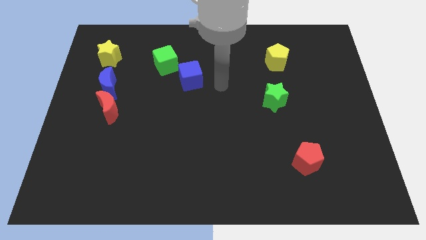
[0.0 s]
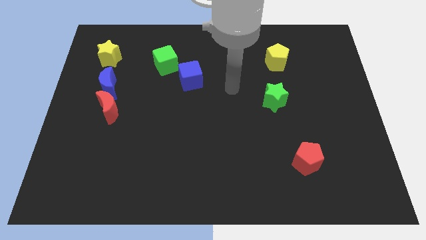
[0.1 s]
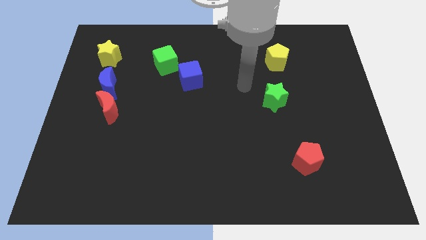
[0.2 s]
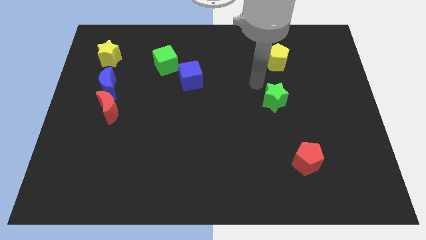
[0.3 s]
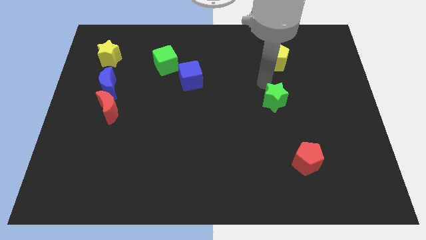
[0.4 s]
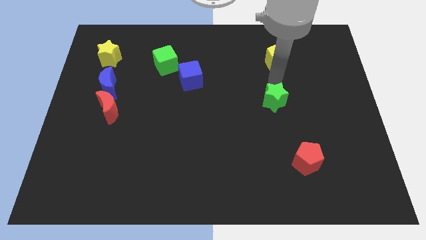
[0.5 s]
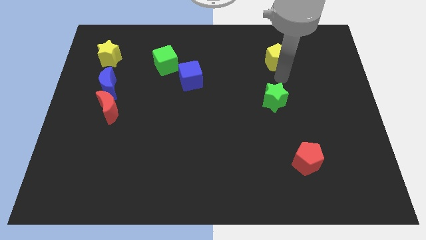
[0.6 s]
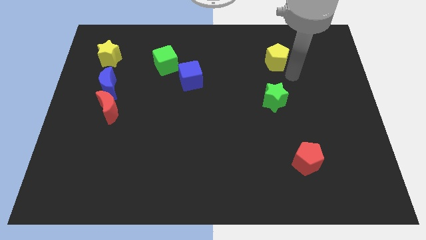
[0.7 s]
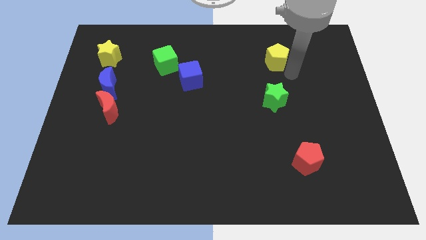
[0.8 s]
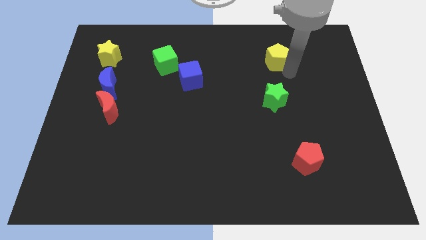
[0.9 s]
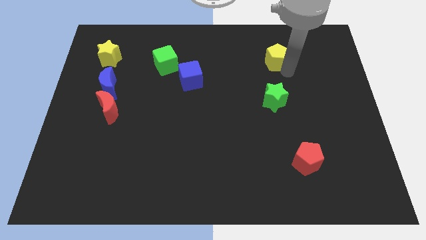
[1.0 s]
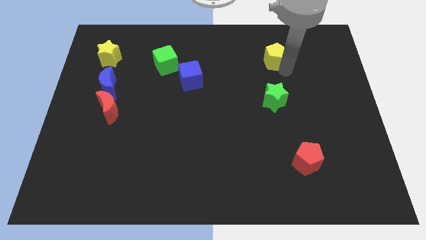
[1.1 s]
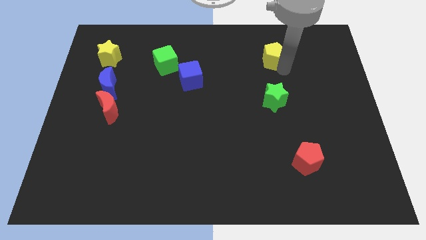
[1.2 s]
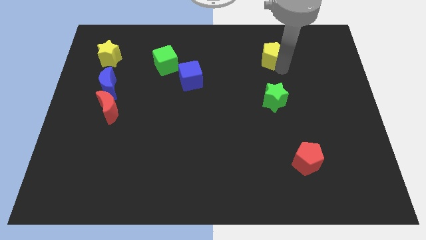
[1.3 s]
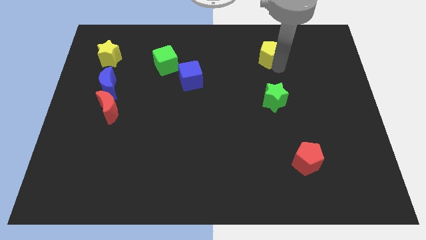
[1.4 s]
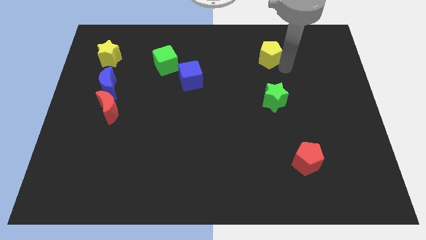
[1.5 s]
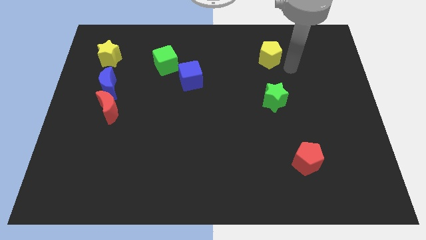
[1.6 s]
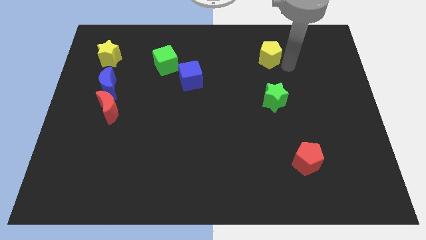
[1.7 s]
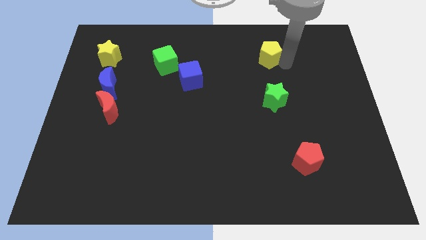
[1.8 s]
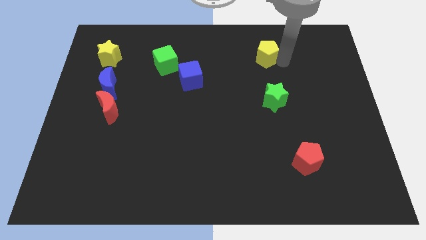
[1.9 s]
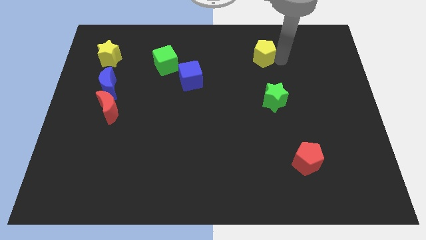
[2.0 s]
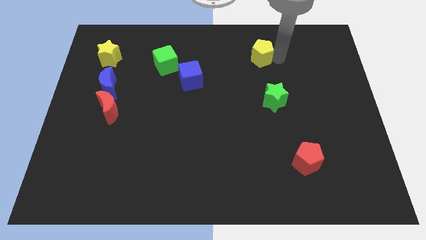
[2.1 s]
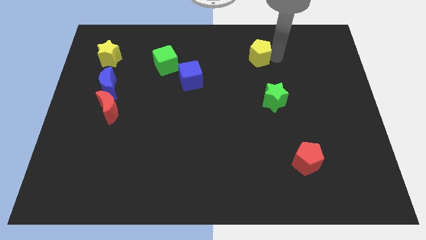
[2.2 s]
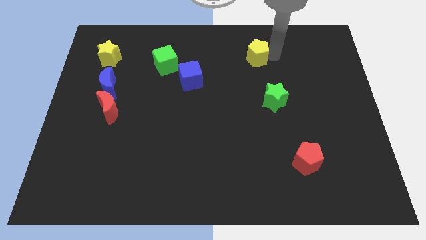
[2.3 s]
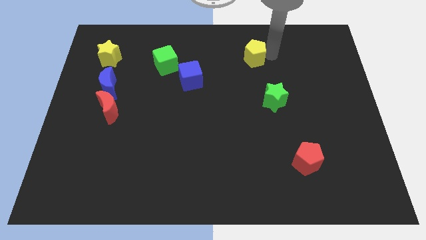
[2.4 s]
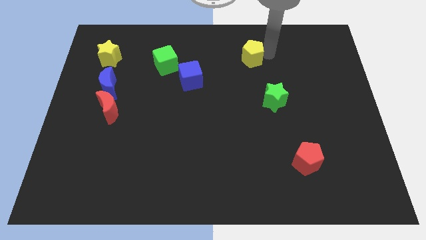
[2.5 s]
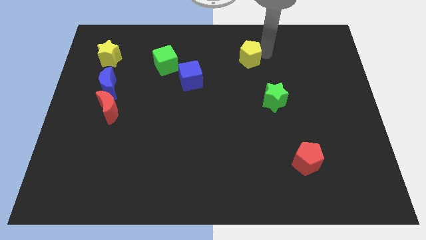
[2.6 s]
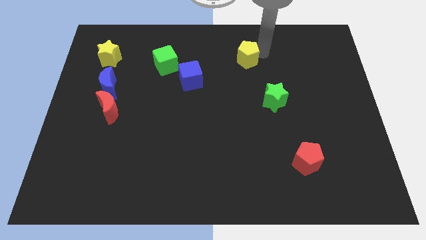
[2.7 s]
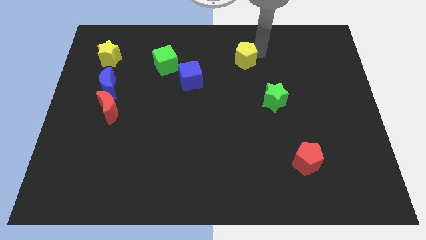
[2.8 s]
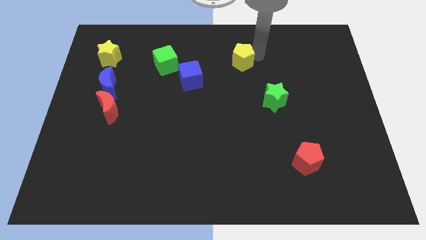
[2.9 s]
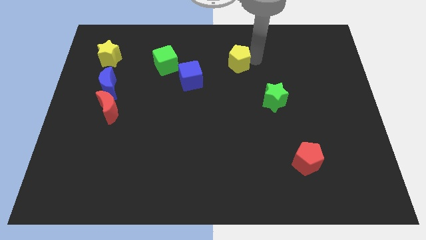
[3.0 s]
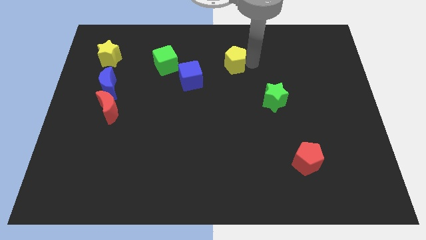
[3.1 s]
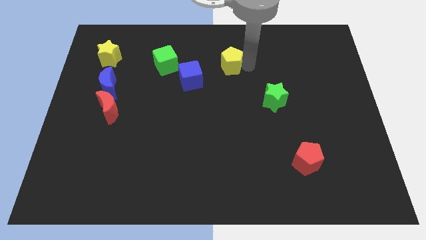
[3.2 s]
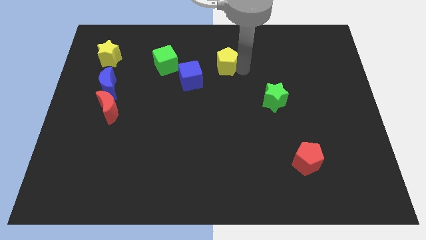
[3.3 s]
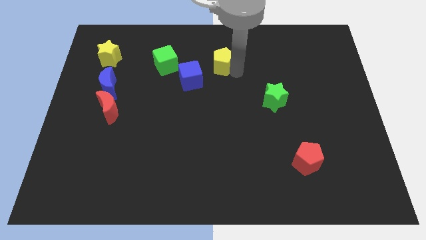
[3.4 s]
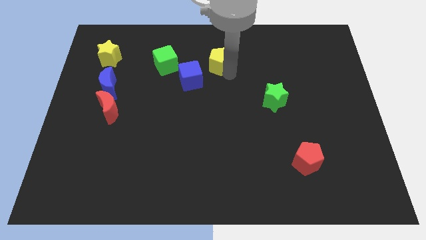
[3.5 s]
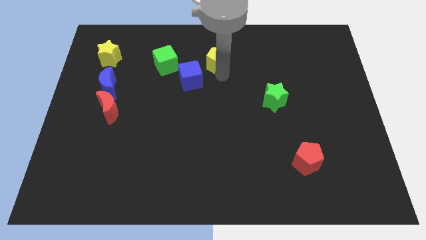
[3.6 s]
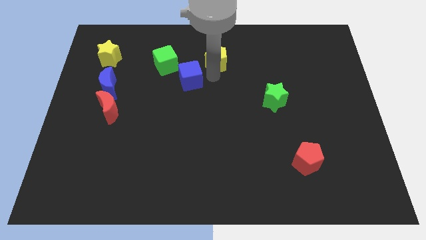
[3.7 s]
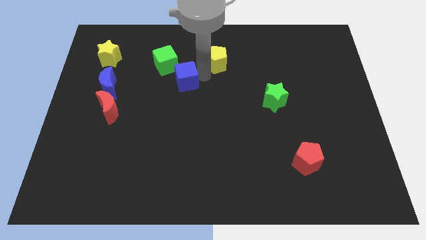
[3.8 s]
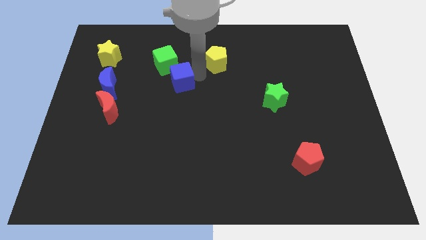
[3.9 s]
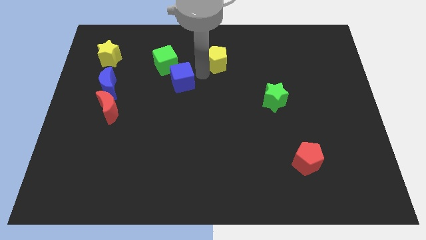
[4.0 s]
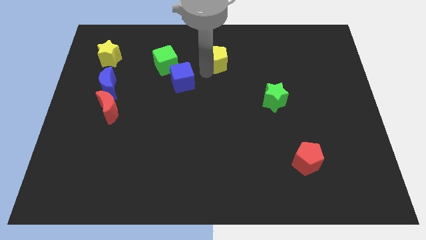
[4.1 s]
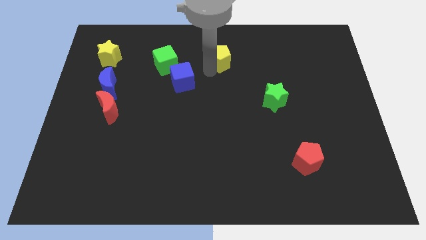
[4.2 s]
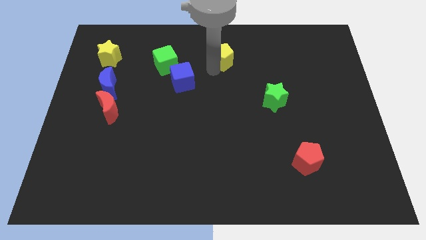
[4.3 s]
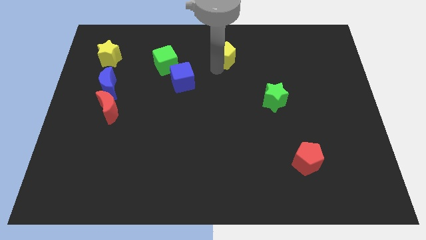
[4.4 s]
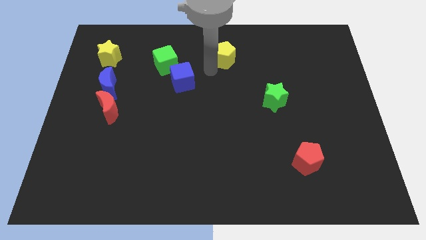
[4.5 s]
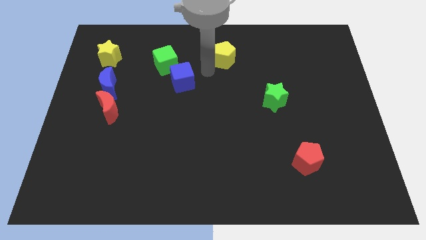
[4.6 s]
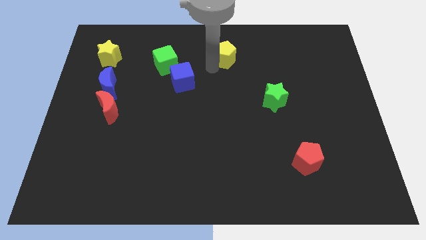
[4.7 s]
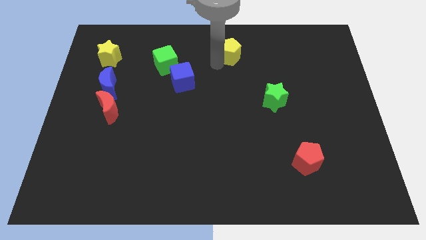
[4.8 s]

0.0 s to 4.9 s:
put the yellow pentagon to the towards your base

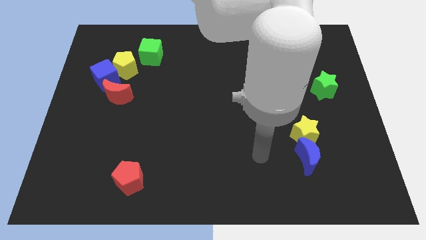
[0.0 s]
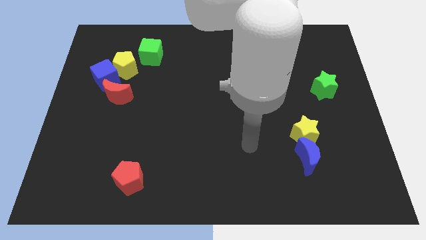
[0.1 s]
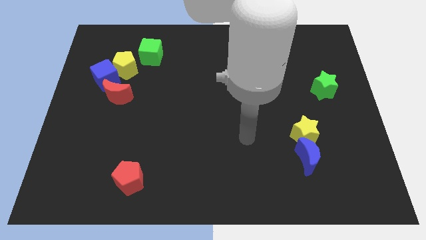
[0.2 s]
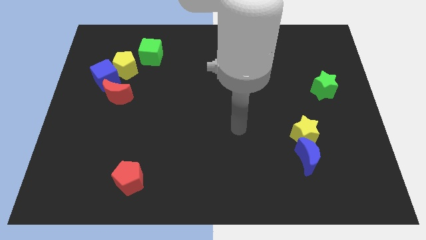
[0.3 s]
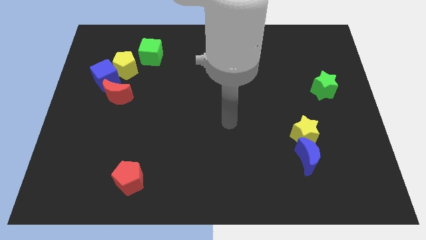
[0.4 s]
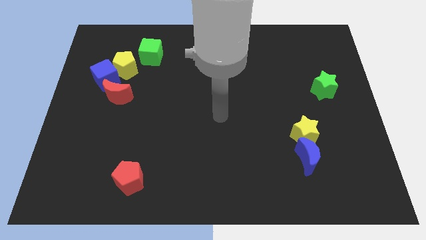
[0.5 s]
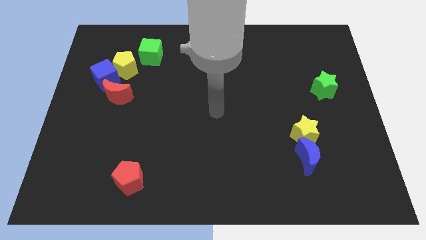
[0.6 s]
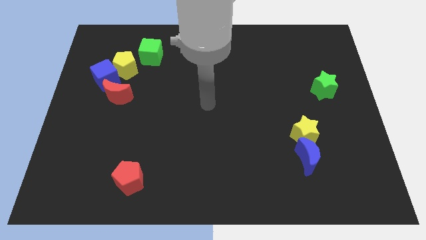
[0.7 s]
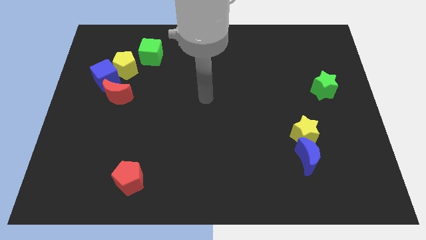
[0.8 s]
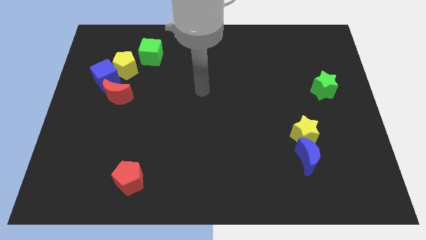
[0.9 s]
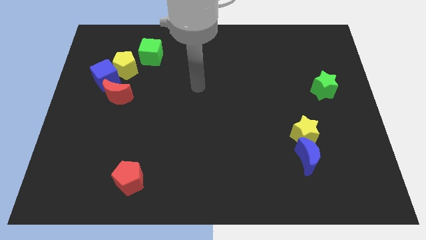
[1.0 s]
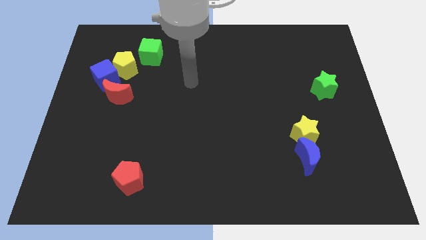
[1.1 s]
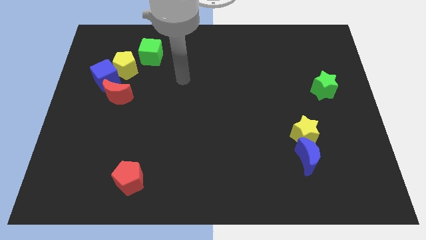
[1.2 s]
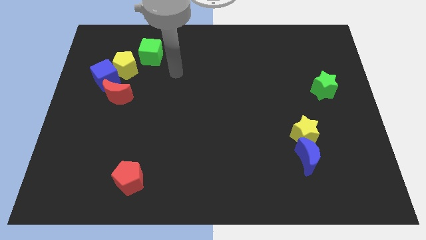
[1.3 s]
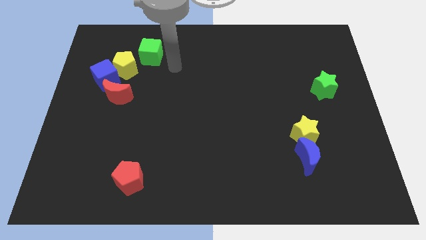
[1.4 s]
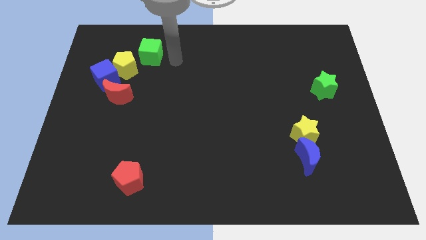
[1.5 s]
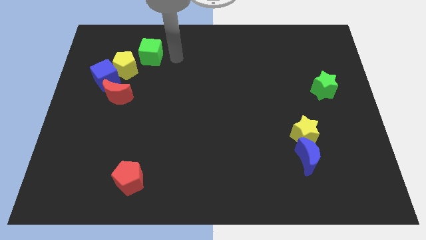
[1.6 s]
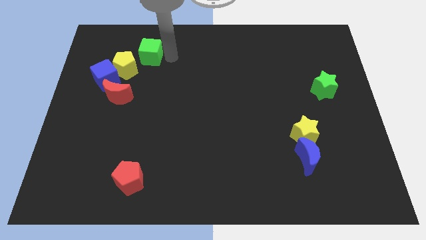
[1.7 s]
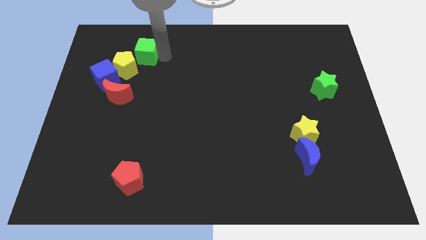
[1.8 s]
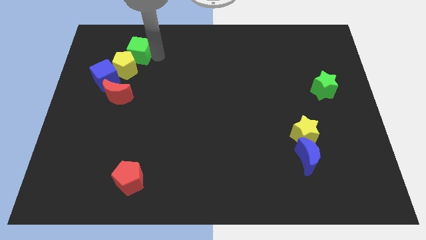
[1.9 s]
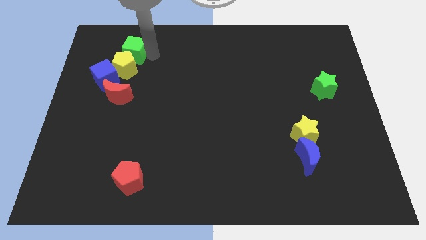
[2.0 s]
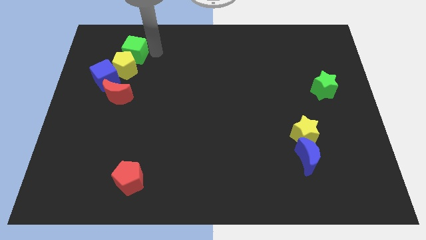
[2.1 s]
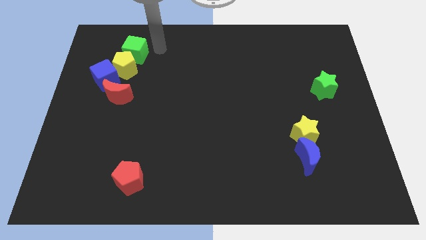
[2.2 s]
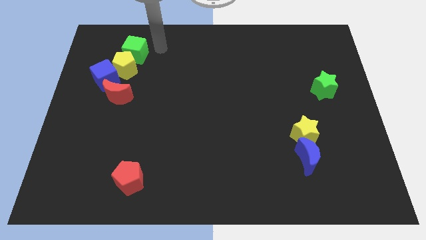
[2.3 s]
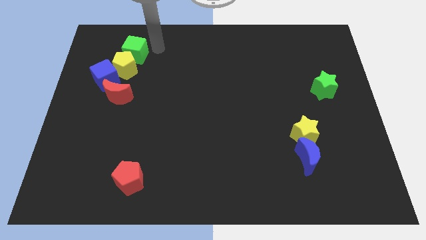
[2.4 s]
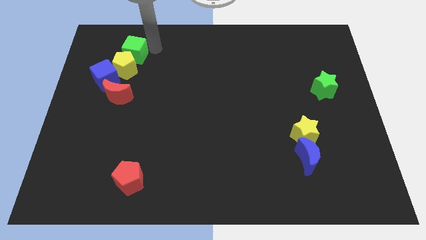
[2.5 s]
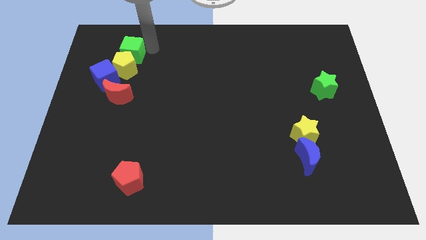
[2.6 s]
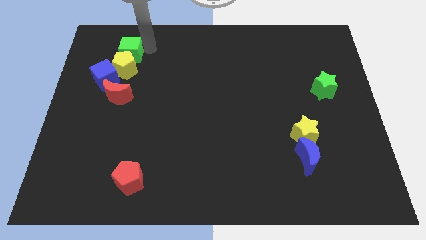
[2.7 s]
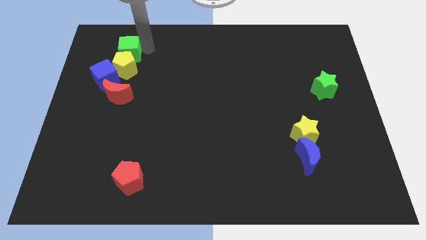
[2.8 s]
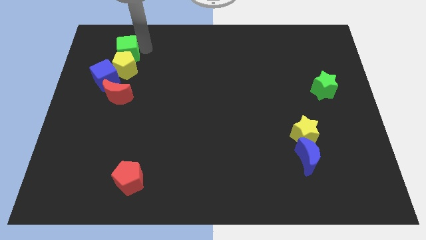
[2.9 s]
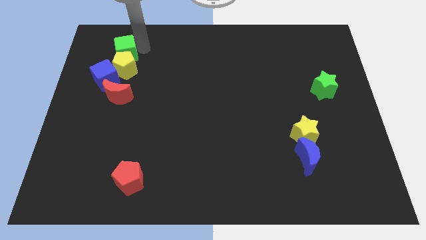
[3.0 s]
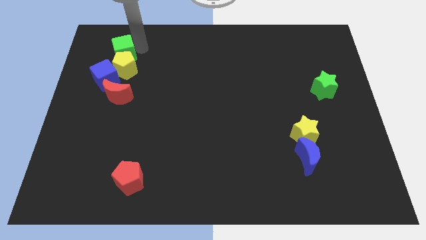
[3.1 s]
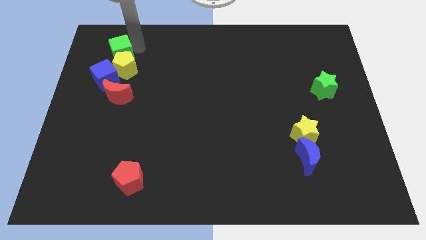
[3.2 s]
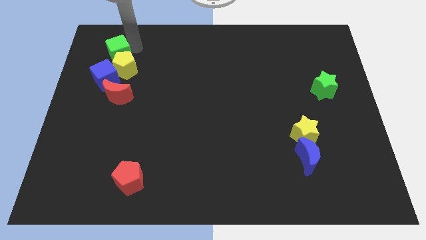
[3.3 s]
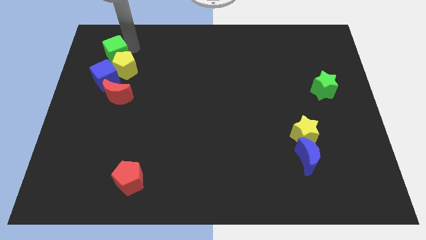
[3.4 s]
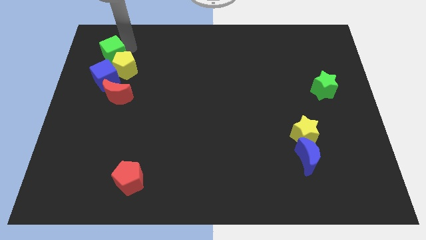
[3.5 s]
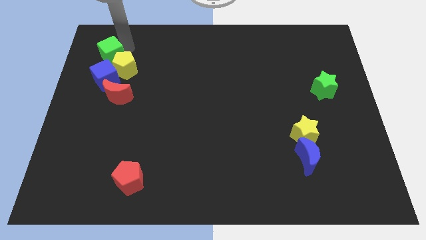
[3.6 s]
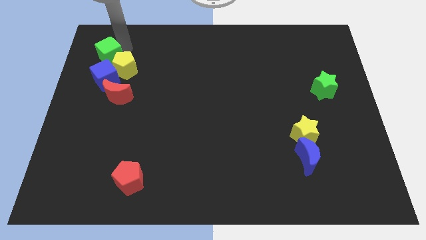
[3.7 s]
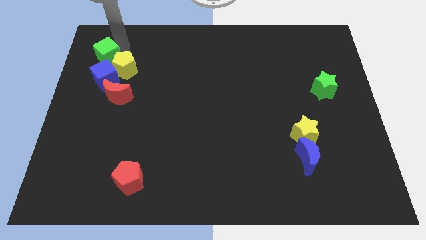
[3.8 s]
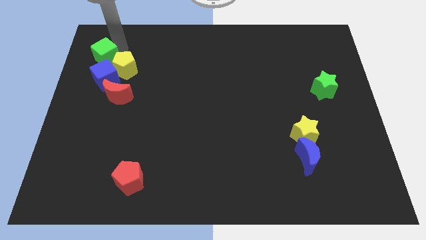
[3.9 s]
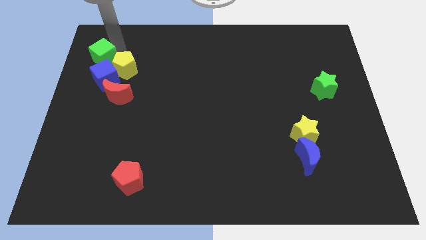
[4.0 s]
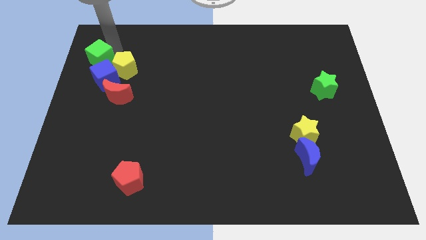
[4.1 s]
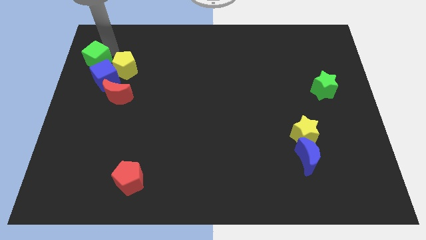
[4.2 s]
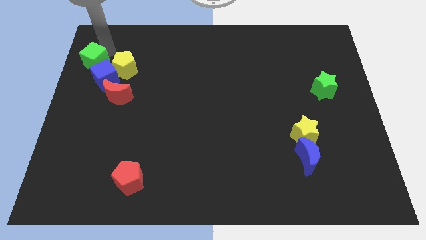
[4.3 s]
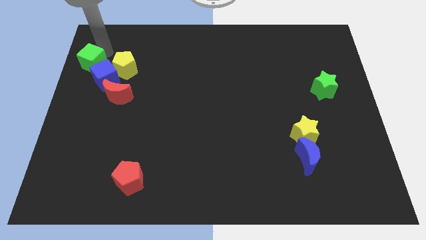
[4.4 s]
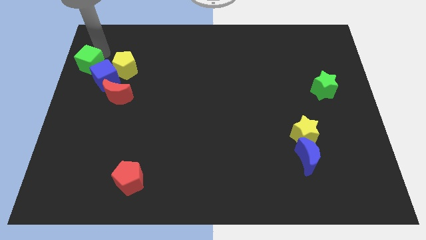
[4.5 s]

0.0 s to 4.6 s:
push the green cube to the left side of the board
